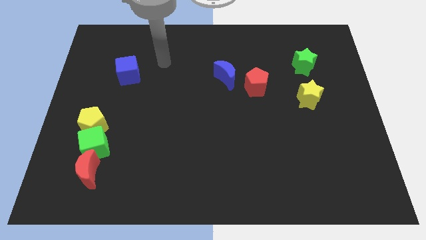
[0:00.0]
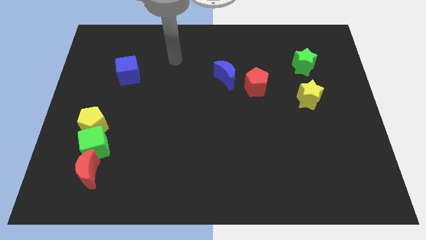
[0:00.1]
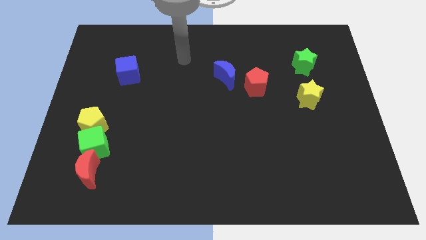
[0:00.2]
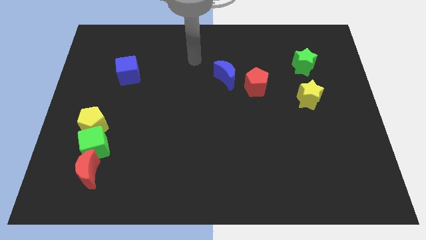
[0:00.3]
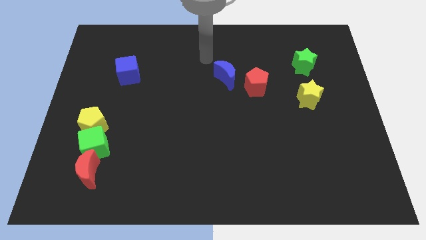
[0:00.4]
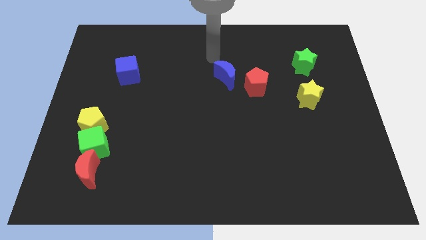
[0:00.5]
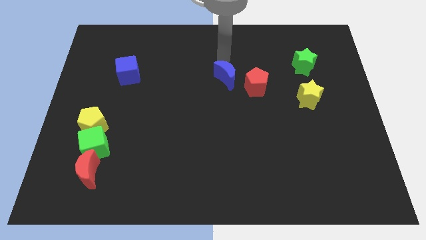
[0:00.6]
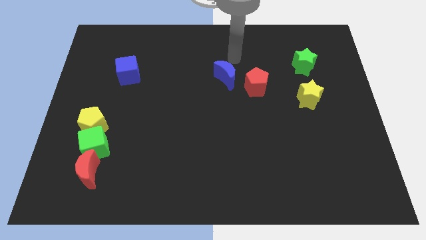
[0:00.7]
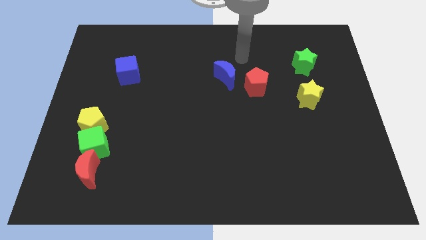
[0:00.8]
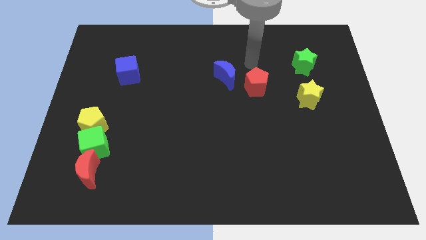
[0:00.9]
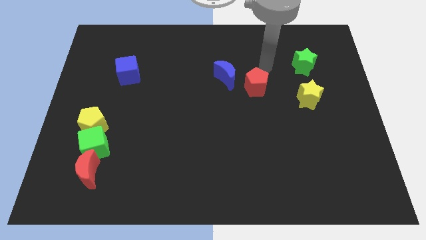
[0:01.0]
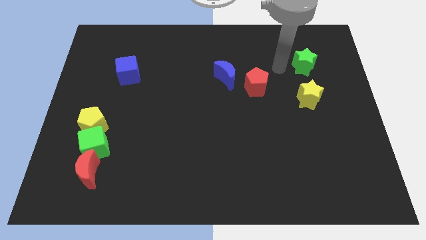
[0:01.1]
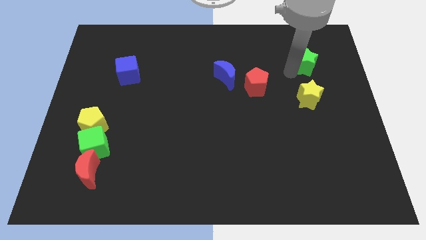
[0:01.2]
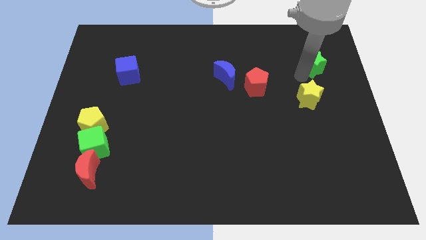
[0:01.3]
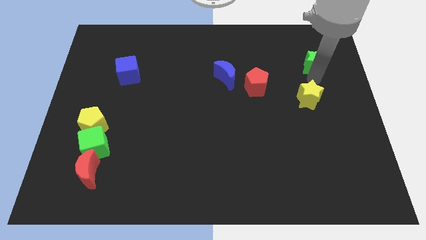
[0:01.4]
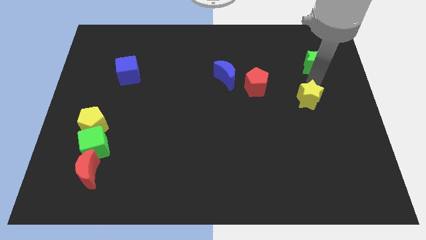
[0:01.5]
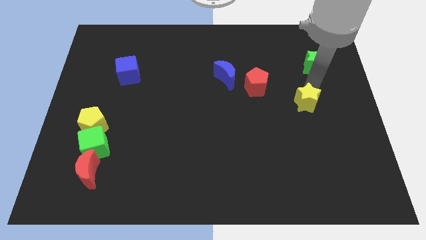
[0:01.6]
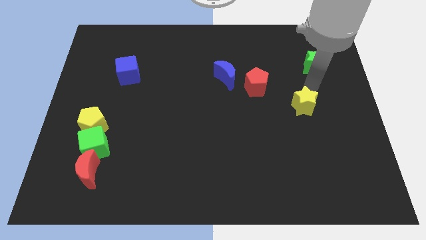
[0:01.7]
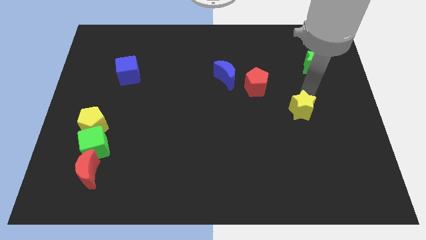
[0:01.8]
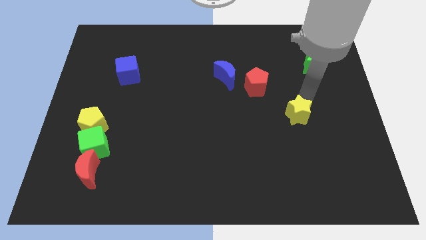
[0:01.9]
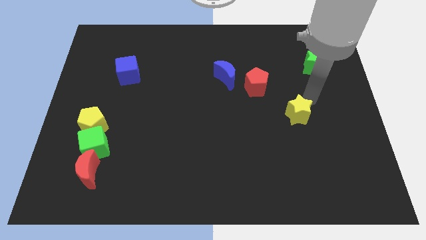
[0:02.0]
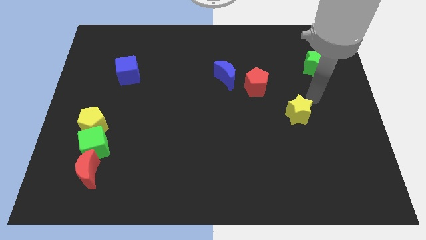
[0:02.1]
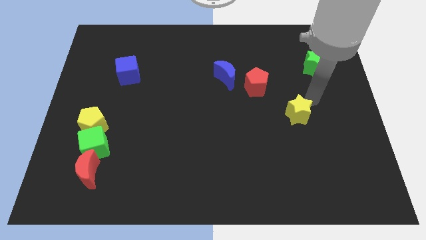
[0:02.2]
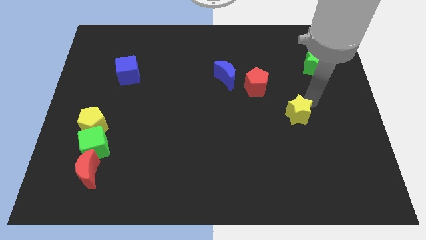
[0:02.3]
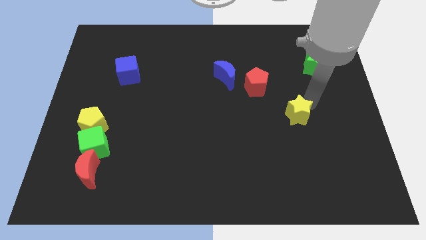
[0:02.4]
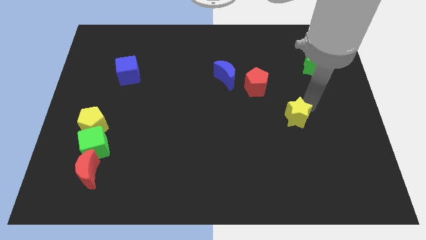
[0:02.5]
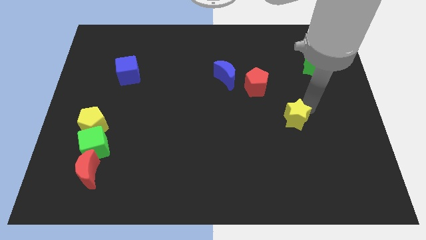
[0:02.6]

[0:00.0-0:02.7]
move the yellow star slightly down and to the left diagonally

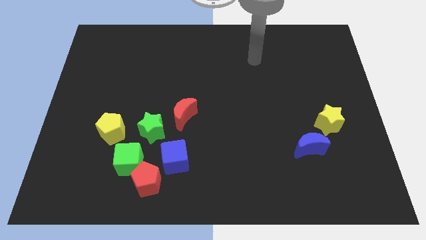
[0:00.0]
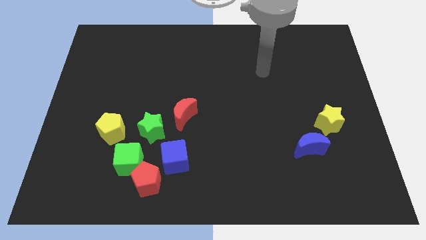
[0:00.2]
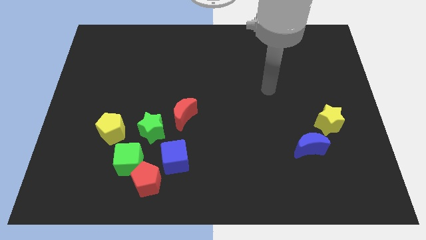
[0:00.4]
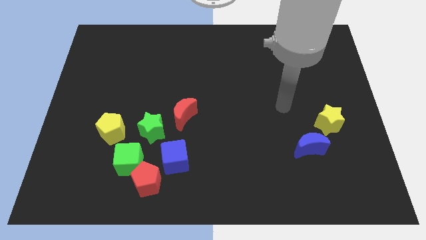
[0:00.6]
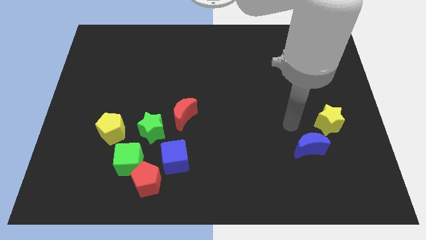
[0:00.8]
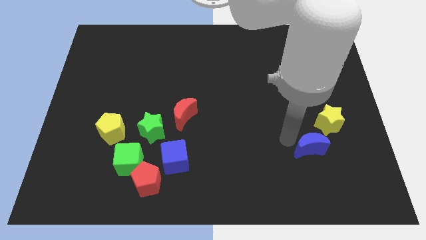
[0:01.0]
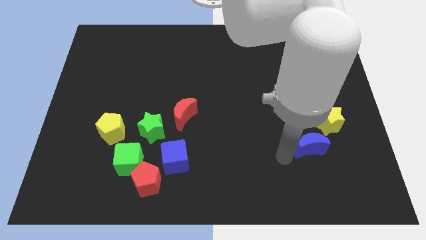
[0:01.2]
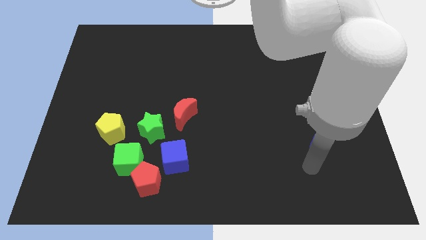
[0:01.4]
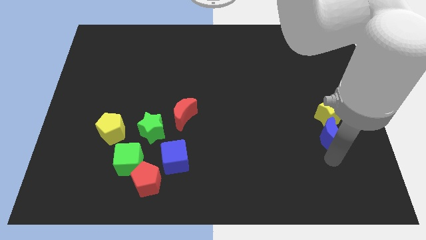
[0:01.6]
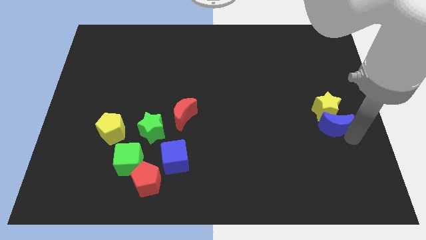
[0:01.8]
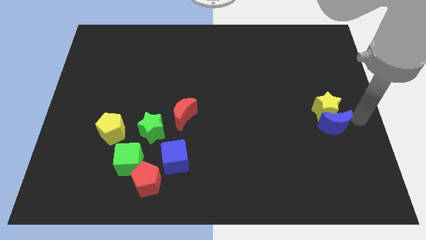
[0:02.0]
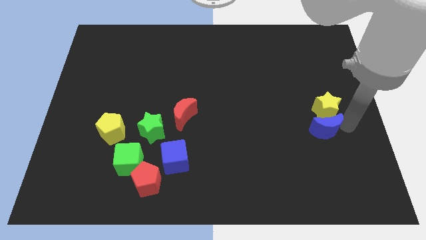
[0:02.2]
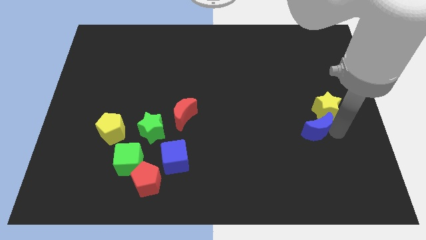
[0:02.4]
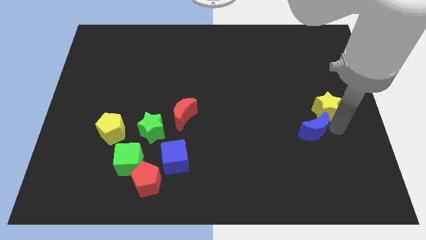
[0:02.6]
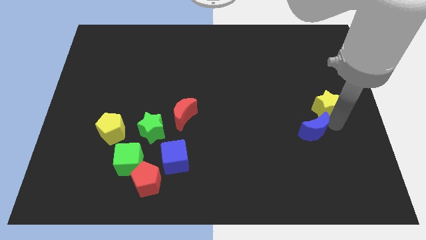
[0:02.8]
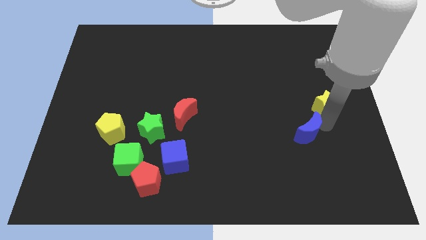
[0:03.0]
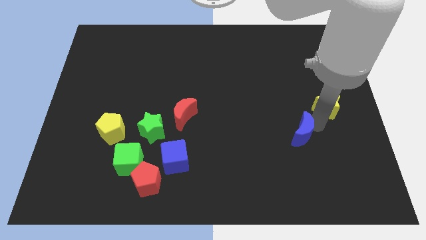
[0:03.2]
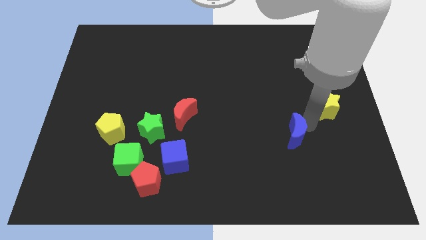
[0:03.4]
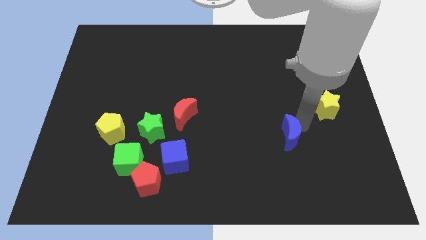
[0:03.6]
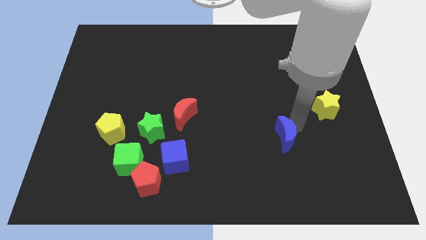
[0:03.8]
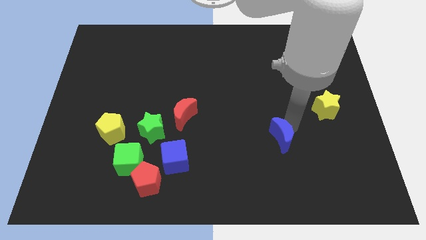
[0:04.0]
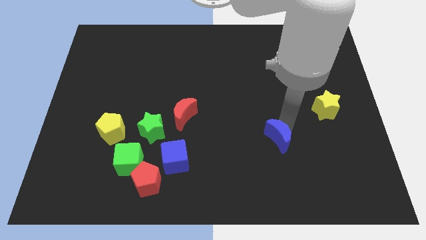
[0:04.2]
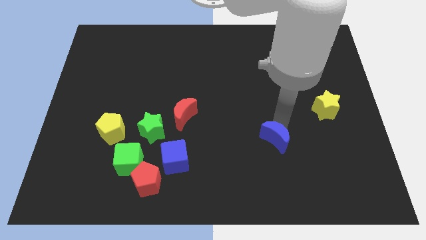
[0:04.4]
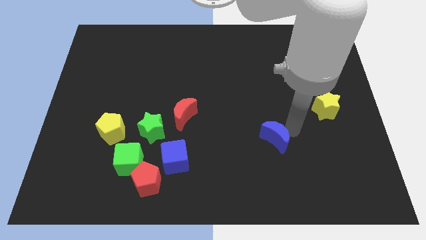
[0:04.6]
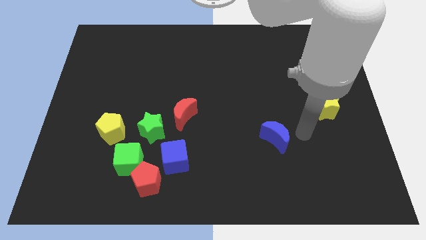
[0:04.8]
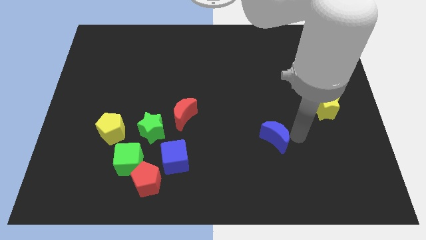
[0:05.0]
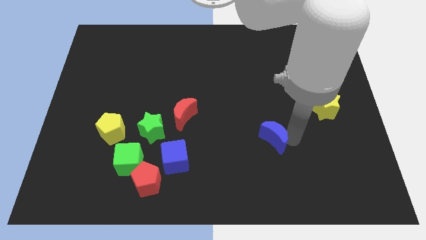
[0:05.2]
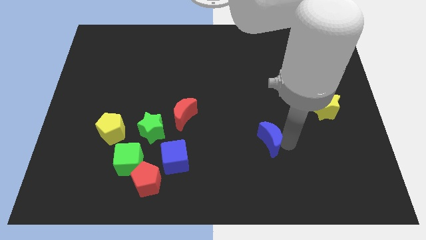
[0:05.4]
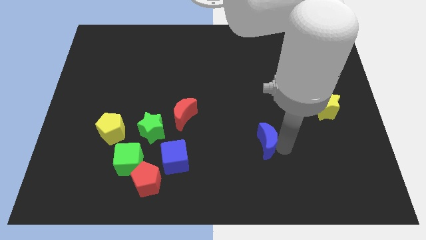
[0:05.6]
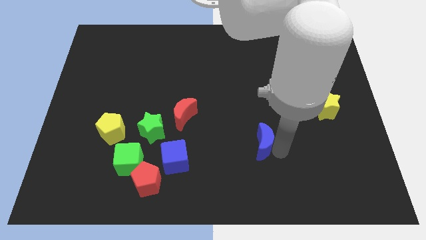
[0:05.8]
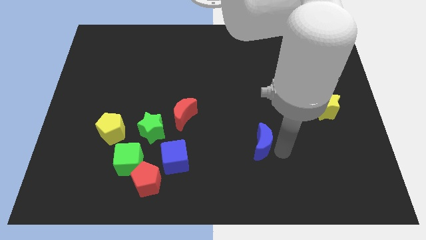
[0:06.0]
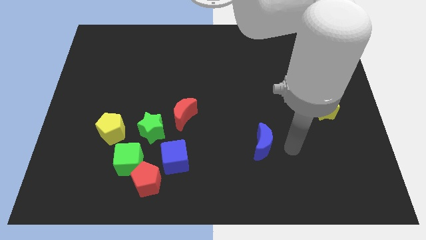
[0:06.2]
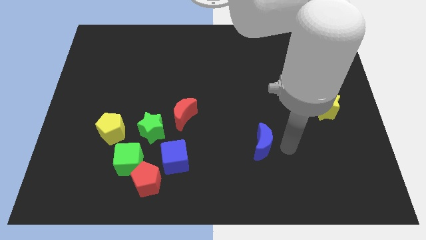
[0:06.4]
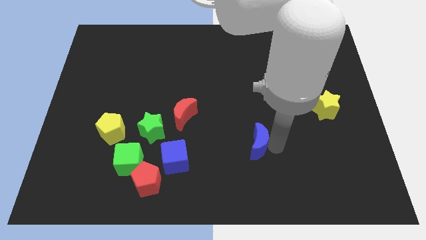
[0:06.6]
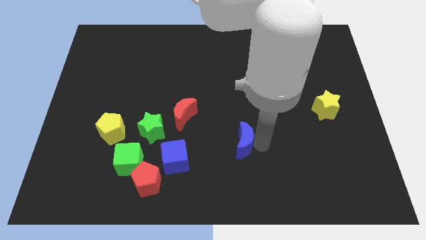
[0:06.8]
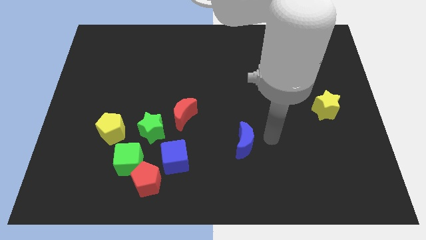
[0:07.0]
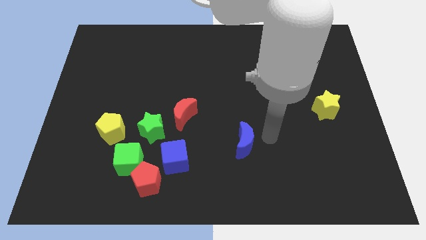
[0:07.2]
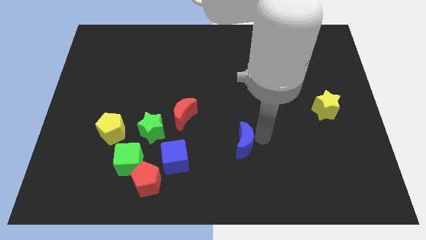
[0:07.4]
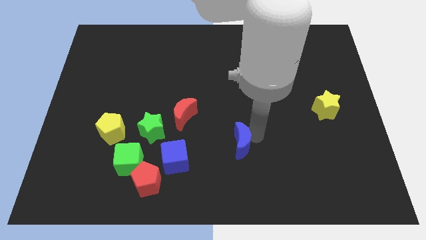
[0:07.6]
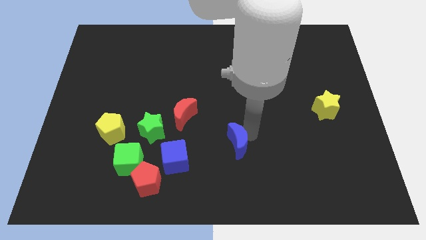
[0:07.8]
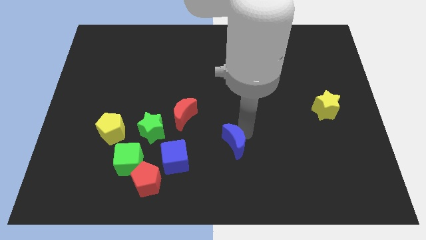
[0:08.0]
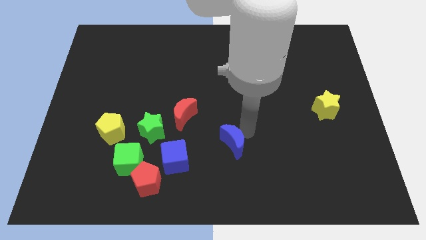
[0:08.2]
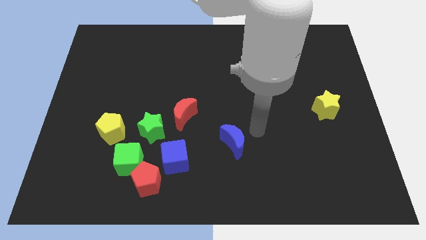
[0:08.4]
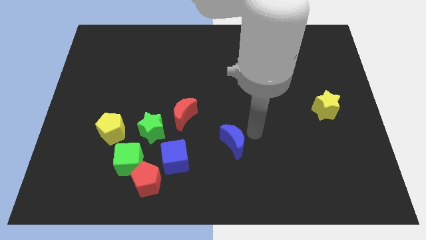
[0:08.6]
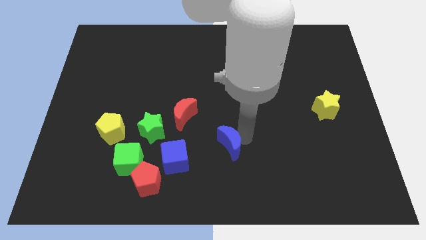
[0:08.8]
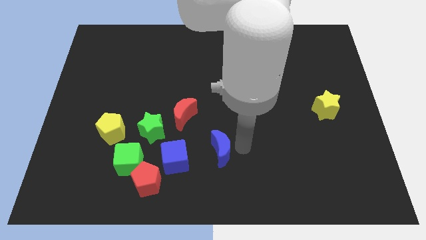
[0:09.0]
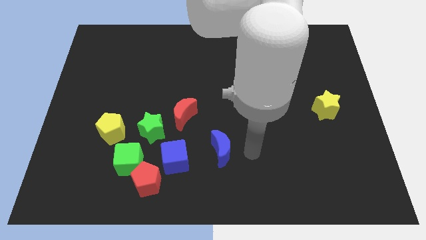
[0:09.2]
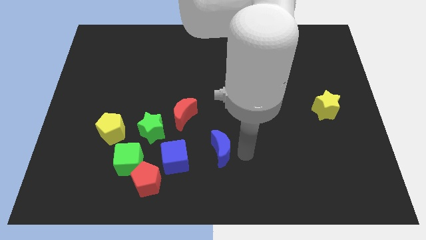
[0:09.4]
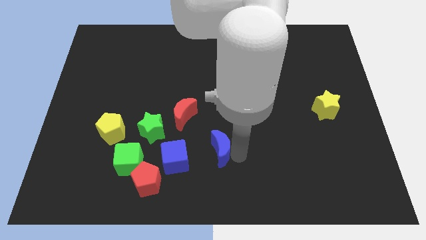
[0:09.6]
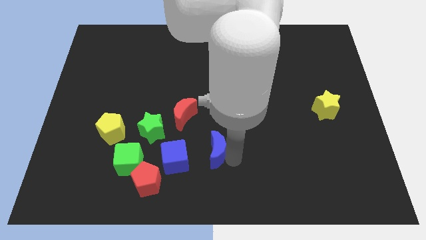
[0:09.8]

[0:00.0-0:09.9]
push the blue moon to the left

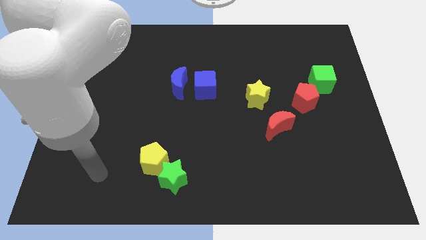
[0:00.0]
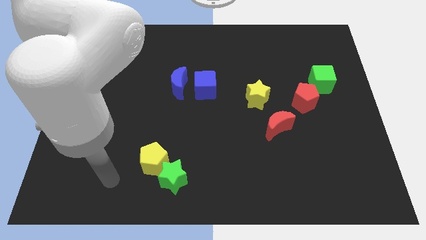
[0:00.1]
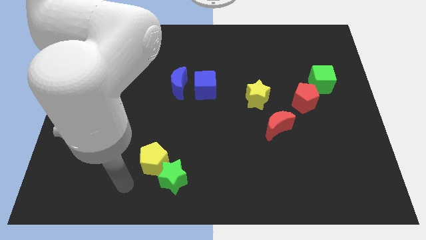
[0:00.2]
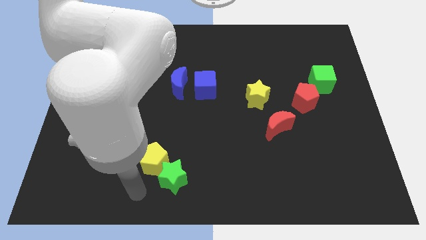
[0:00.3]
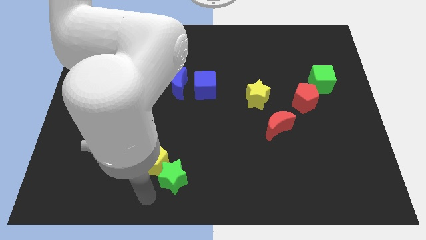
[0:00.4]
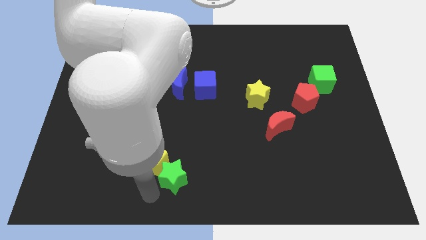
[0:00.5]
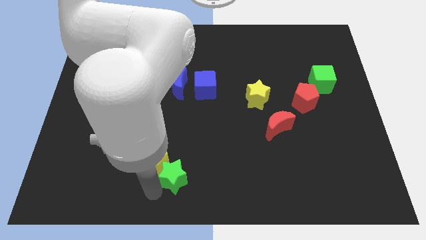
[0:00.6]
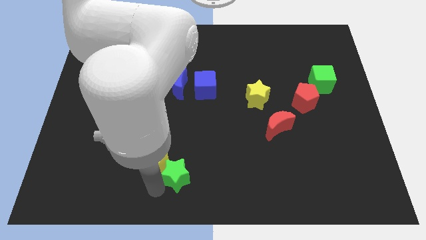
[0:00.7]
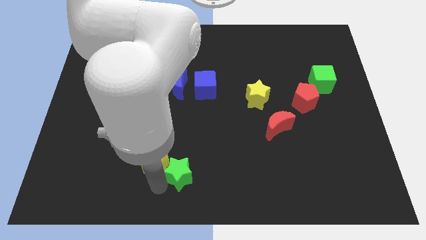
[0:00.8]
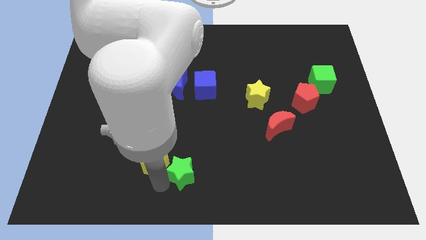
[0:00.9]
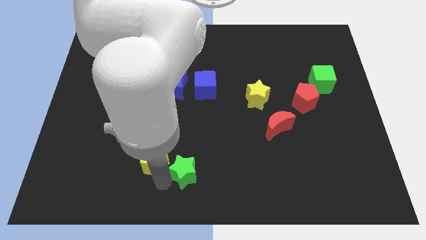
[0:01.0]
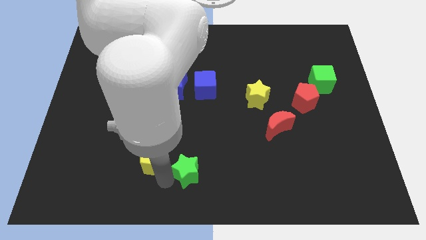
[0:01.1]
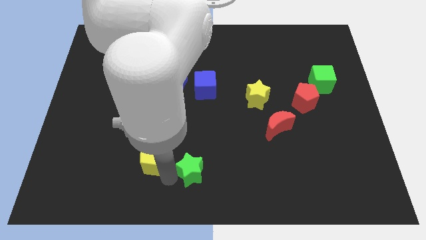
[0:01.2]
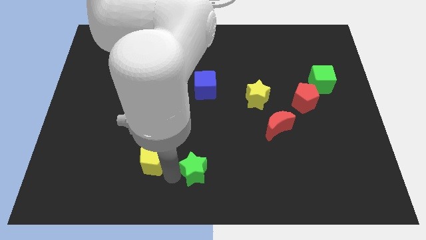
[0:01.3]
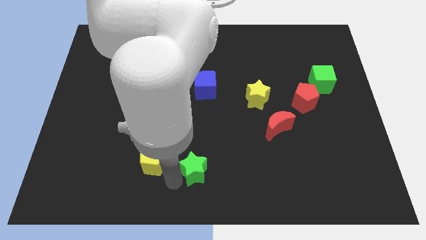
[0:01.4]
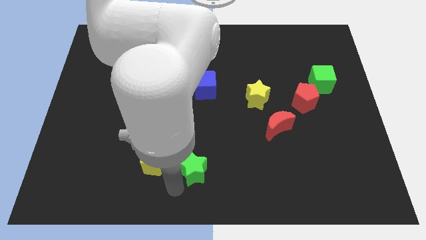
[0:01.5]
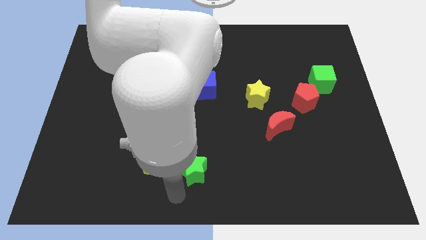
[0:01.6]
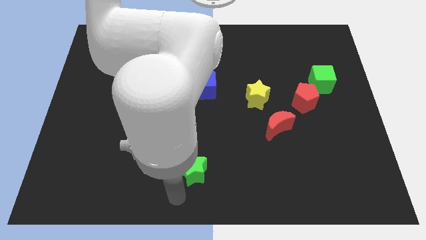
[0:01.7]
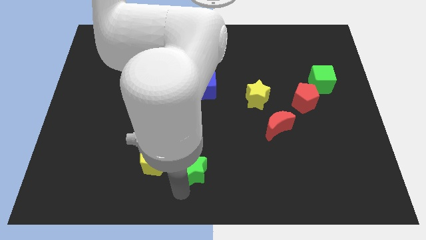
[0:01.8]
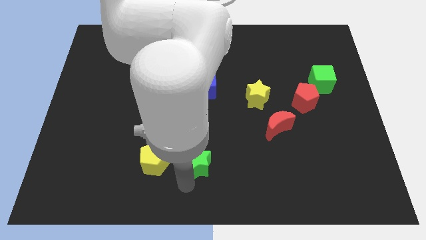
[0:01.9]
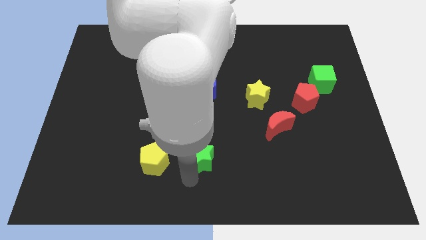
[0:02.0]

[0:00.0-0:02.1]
push the green star upwards and then right a bit
